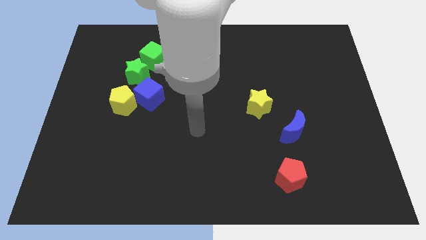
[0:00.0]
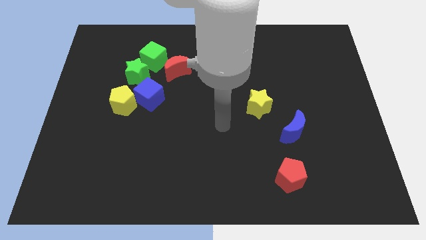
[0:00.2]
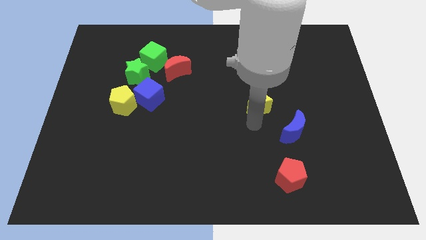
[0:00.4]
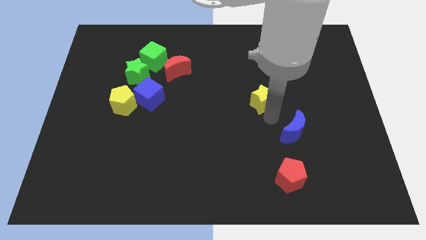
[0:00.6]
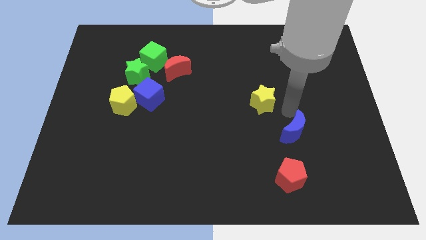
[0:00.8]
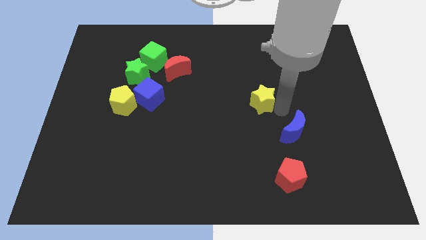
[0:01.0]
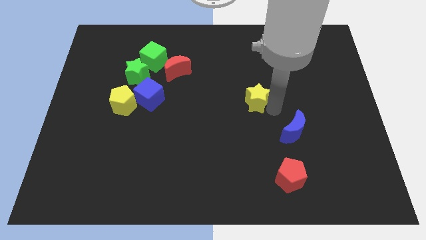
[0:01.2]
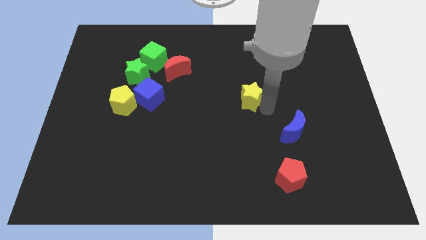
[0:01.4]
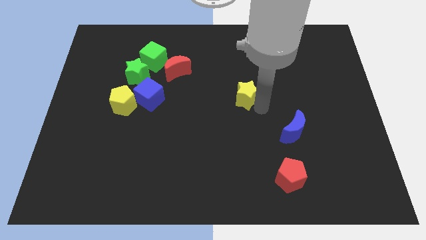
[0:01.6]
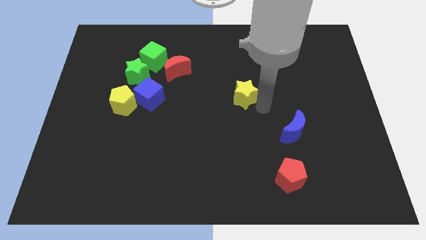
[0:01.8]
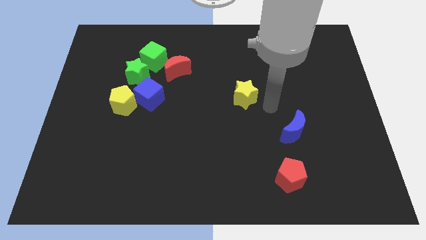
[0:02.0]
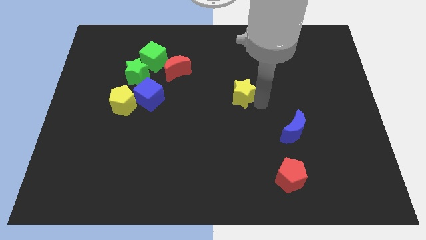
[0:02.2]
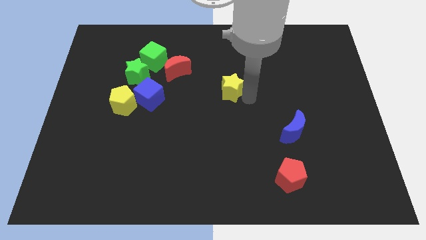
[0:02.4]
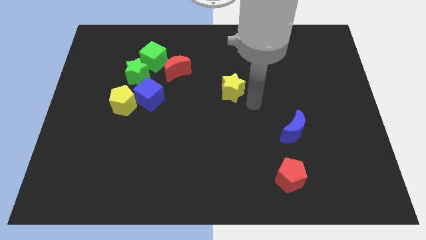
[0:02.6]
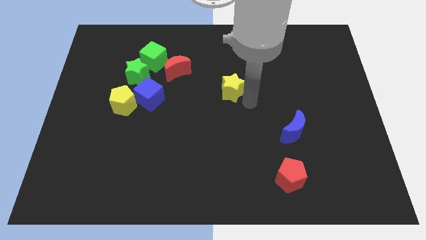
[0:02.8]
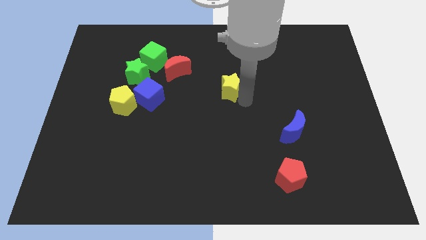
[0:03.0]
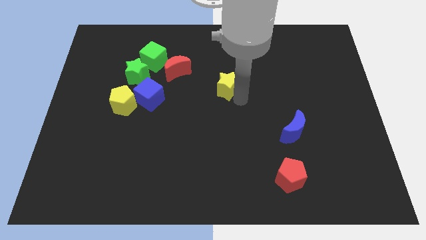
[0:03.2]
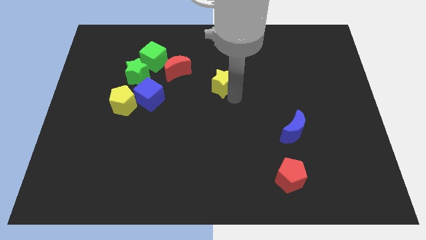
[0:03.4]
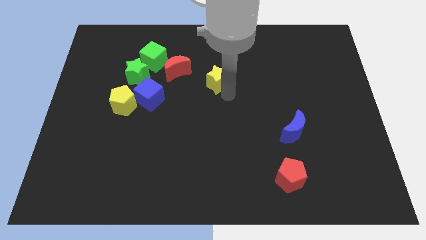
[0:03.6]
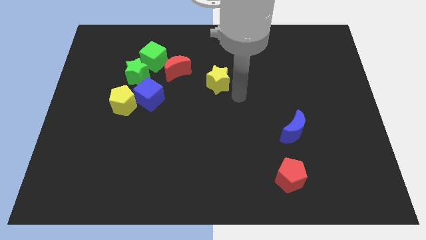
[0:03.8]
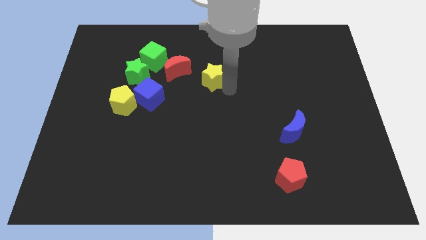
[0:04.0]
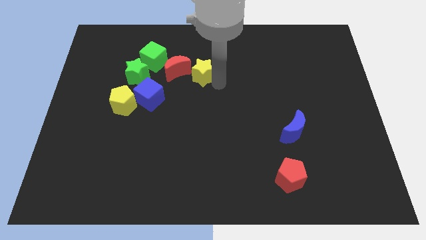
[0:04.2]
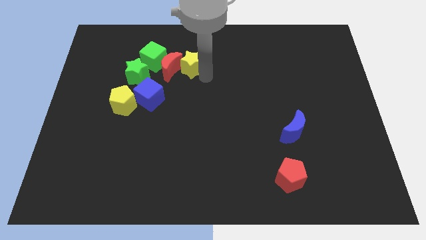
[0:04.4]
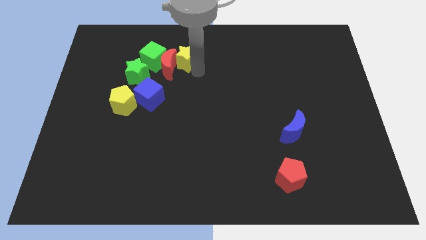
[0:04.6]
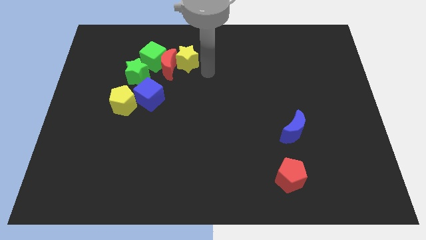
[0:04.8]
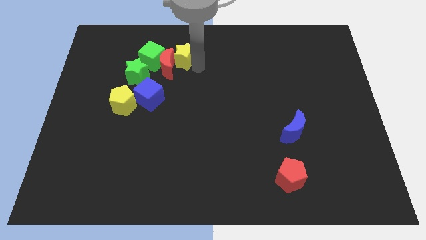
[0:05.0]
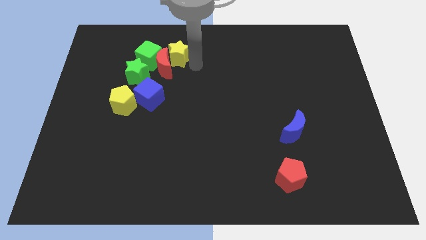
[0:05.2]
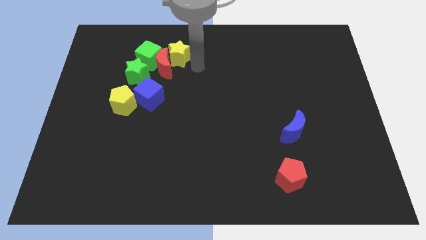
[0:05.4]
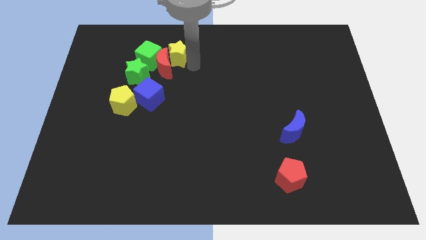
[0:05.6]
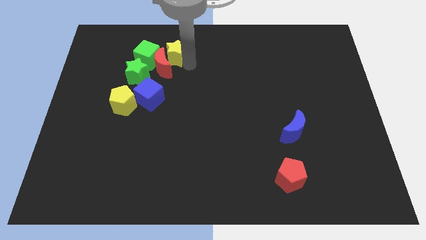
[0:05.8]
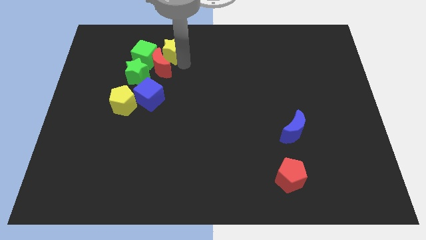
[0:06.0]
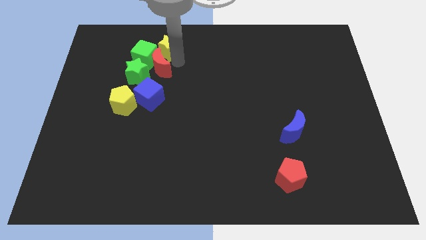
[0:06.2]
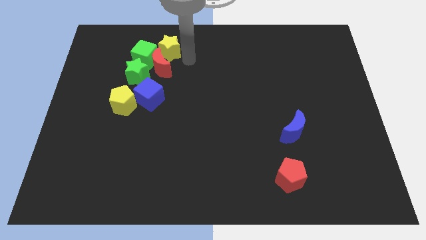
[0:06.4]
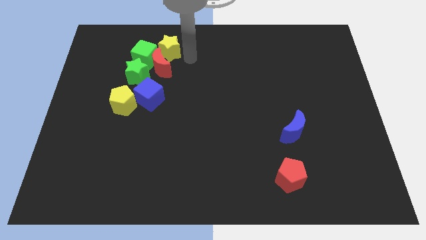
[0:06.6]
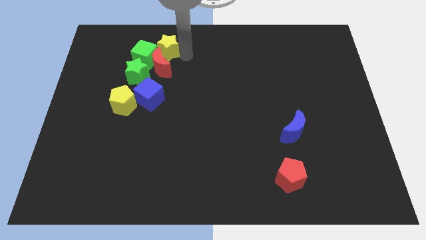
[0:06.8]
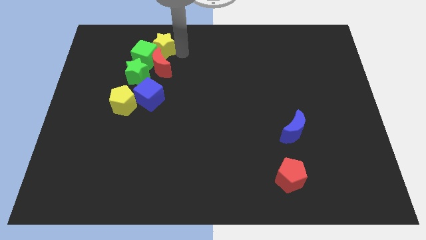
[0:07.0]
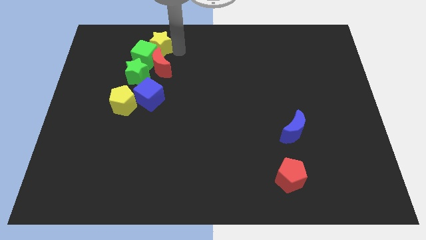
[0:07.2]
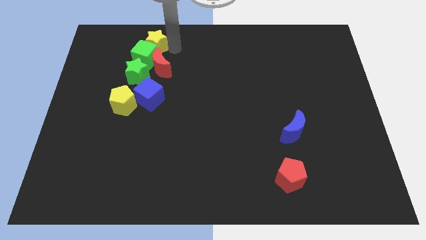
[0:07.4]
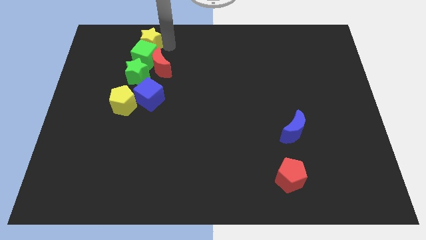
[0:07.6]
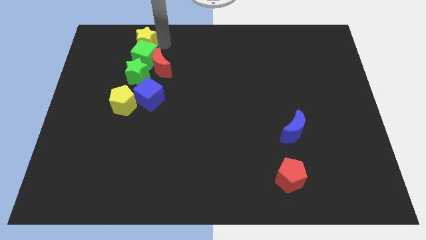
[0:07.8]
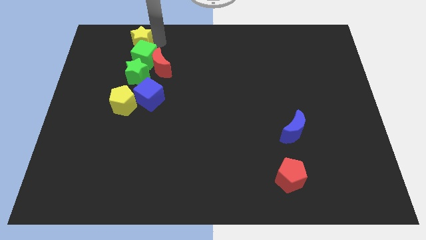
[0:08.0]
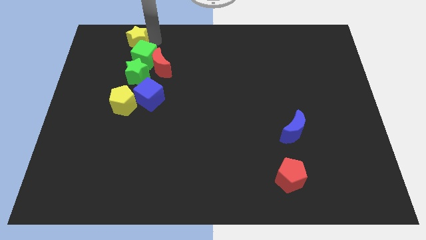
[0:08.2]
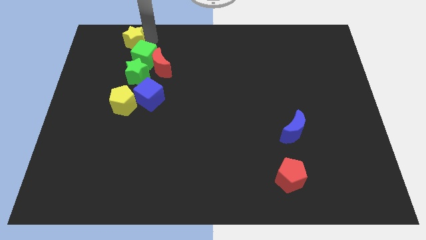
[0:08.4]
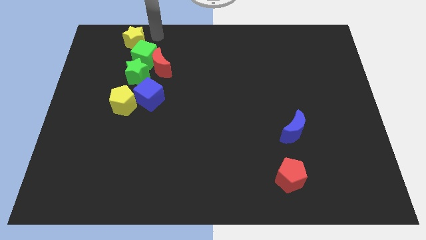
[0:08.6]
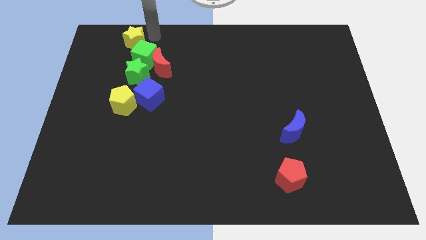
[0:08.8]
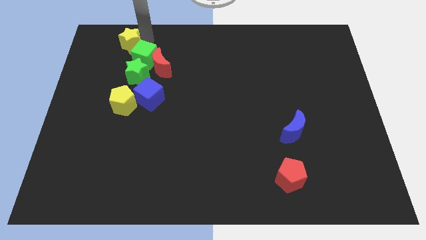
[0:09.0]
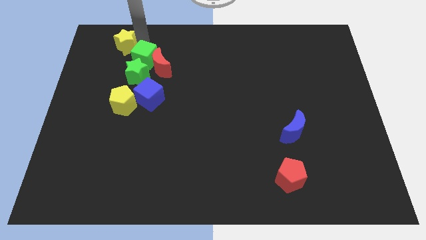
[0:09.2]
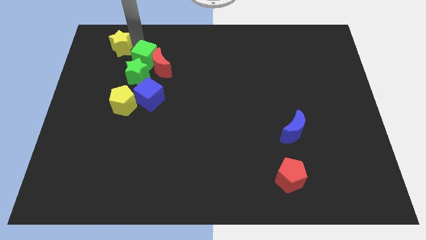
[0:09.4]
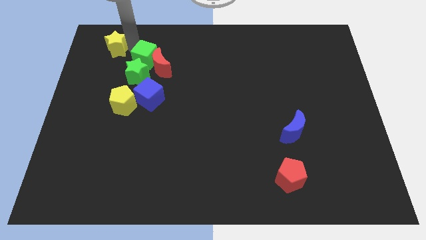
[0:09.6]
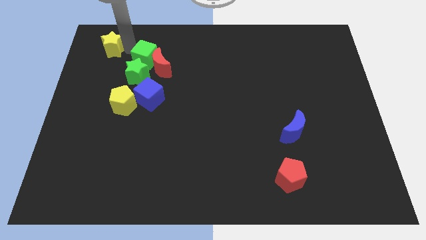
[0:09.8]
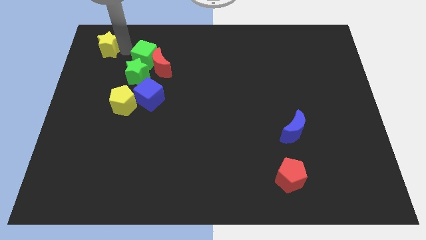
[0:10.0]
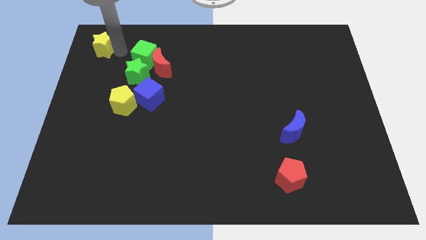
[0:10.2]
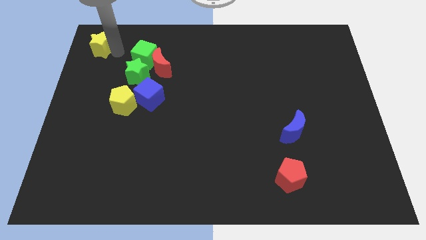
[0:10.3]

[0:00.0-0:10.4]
put the yellow star to the top left

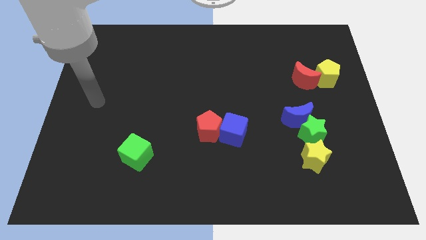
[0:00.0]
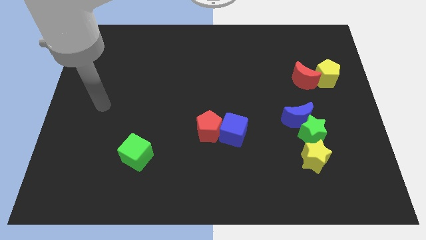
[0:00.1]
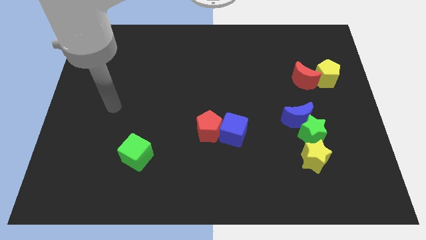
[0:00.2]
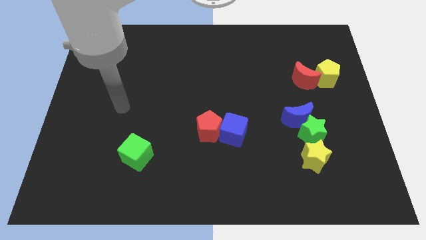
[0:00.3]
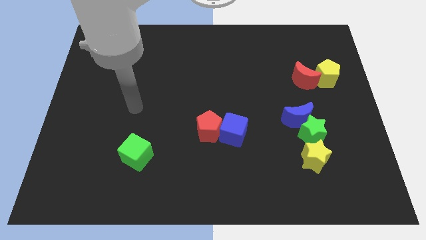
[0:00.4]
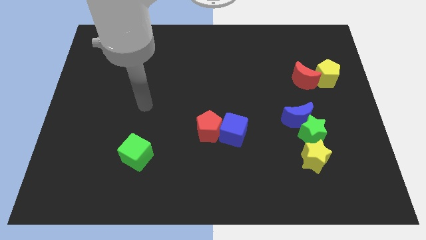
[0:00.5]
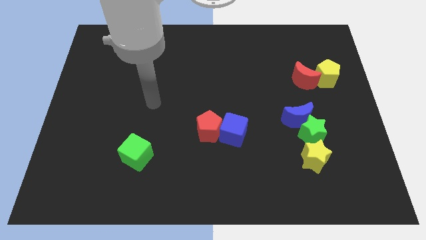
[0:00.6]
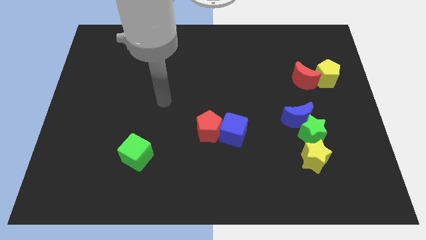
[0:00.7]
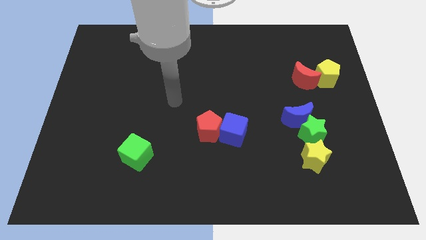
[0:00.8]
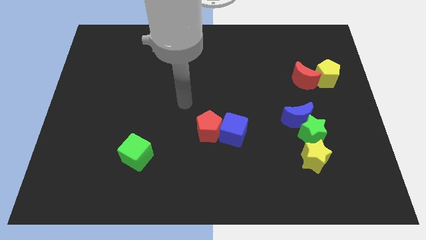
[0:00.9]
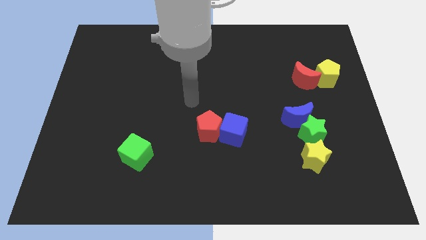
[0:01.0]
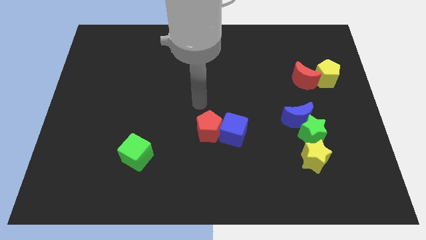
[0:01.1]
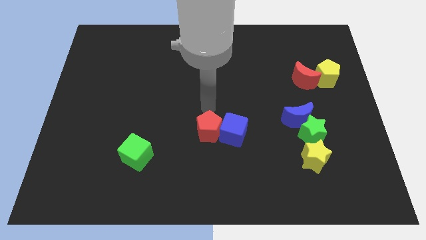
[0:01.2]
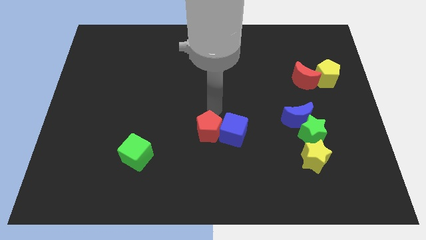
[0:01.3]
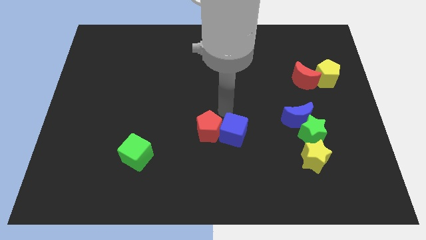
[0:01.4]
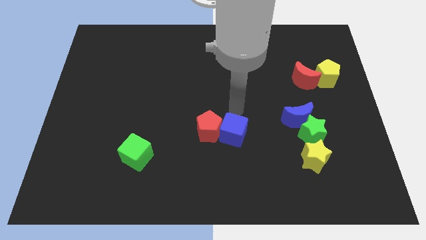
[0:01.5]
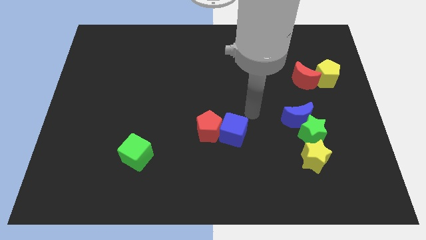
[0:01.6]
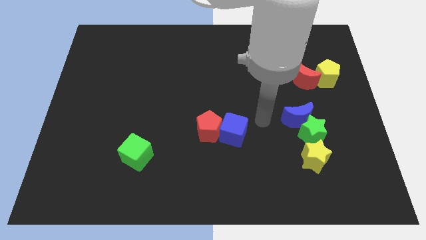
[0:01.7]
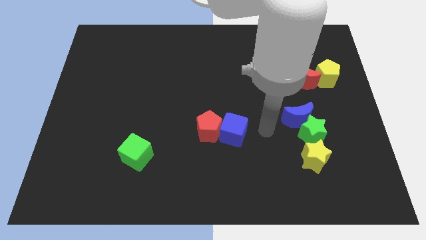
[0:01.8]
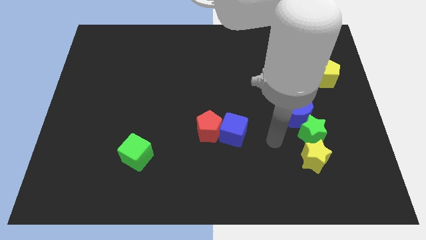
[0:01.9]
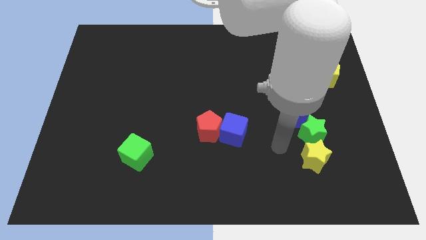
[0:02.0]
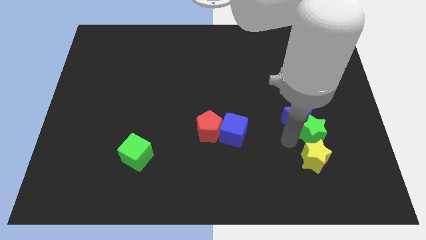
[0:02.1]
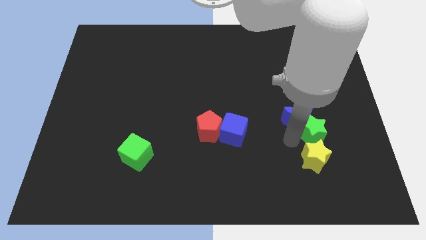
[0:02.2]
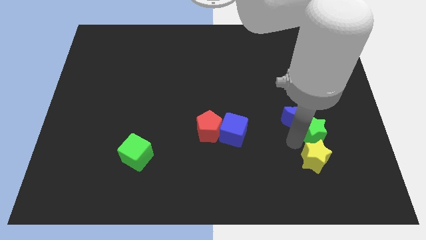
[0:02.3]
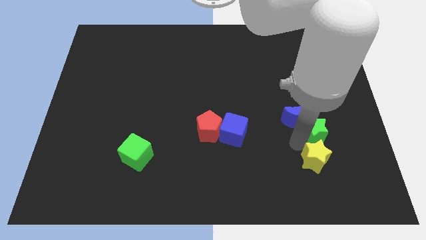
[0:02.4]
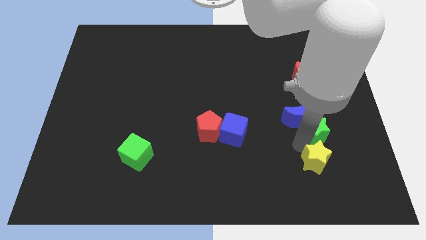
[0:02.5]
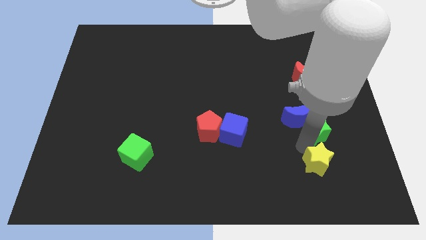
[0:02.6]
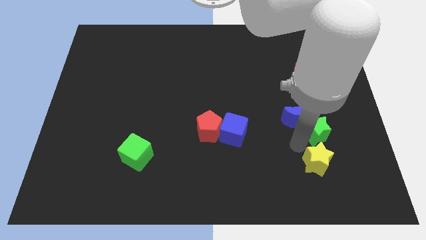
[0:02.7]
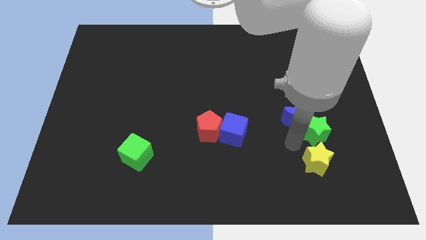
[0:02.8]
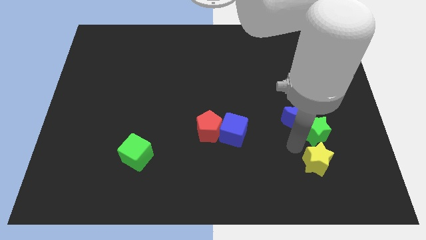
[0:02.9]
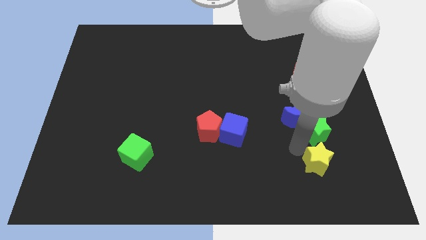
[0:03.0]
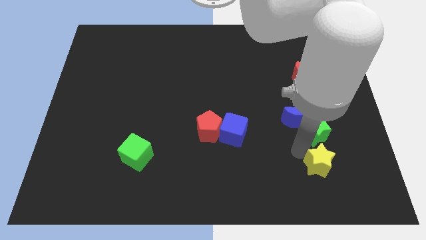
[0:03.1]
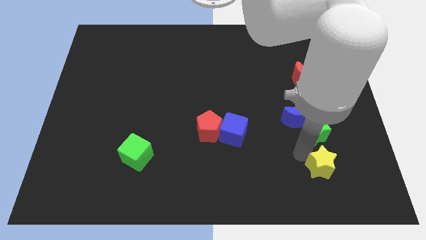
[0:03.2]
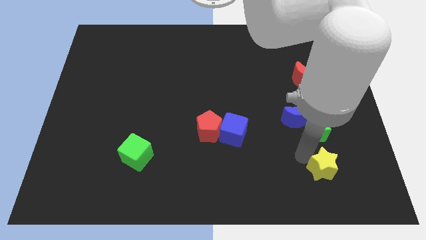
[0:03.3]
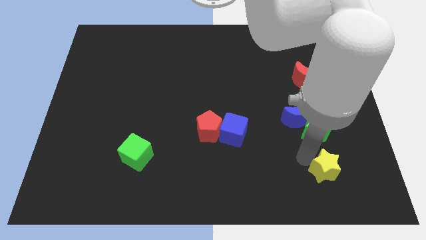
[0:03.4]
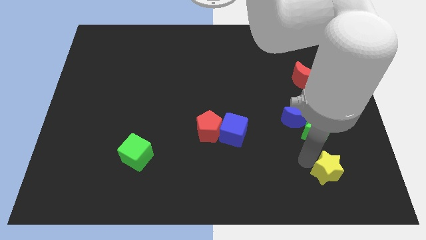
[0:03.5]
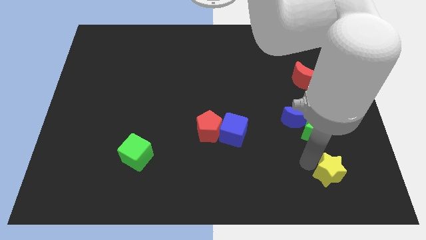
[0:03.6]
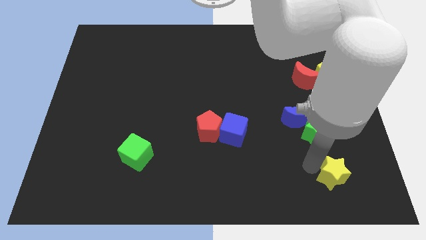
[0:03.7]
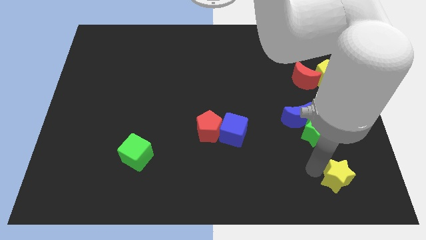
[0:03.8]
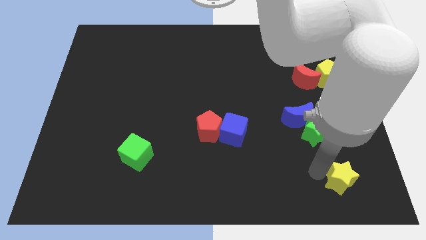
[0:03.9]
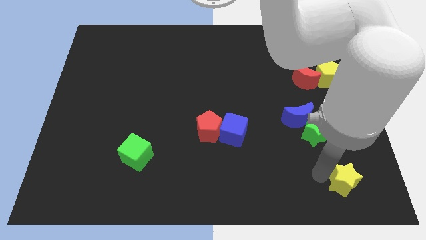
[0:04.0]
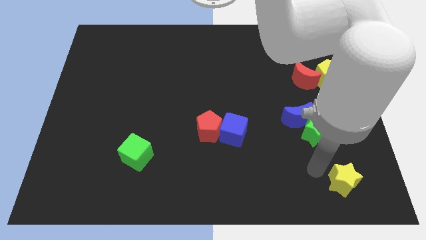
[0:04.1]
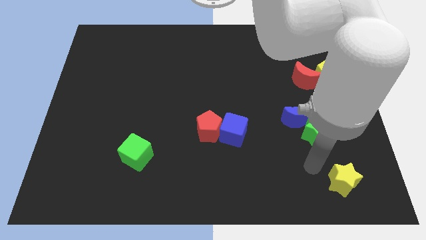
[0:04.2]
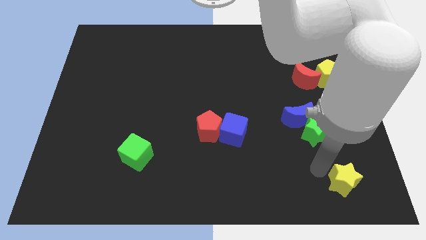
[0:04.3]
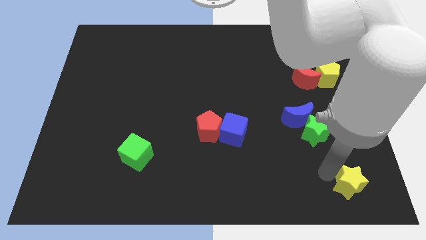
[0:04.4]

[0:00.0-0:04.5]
move the yellow star to the bottom right
